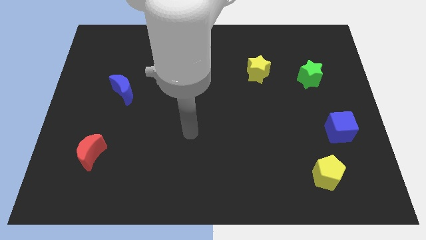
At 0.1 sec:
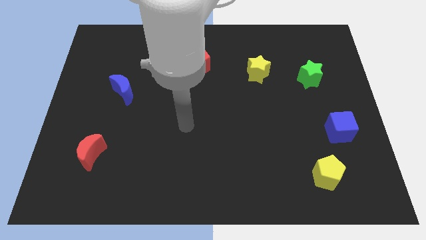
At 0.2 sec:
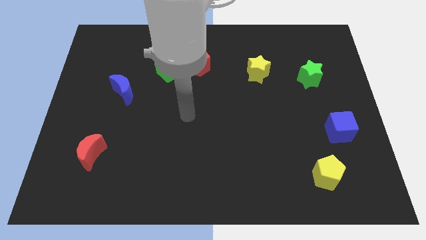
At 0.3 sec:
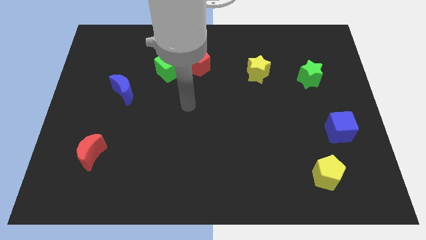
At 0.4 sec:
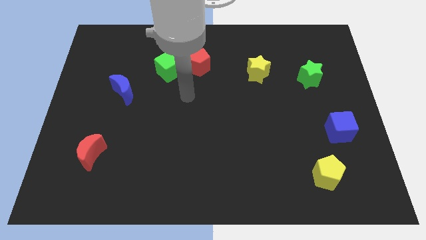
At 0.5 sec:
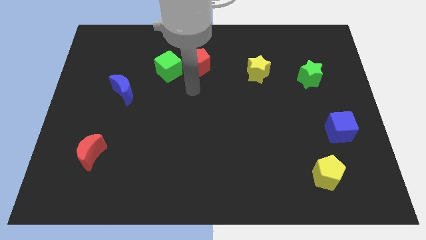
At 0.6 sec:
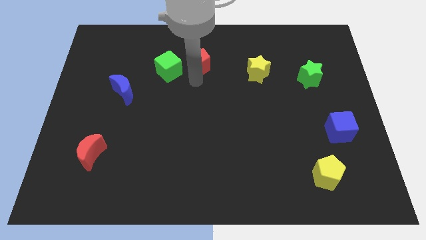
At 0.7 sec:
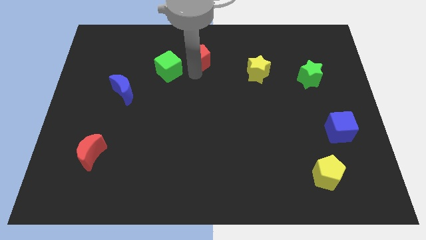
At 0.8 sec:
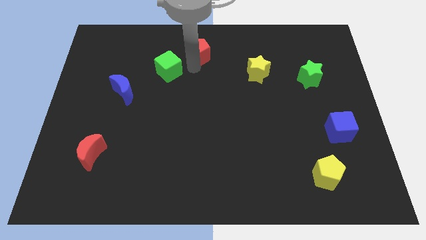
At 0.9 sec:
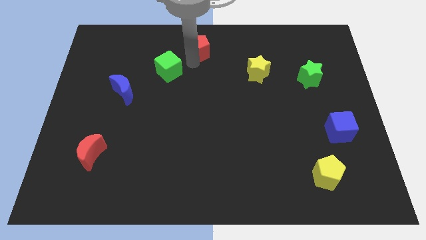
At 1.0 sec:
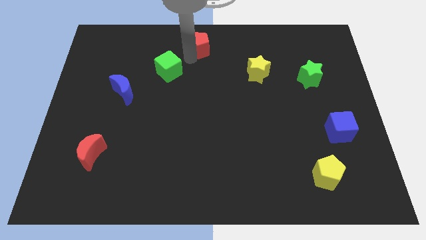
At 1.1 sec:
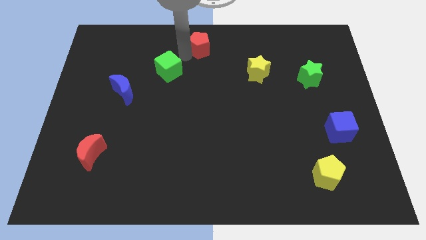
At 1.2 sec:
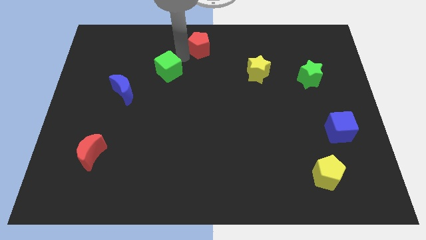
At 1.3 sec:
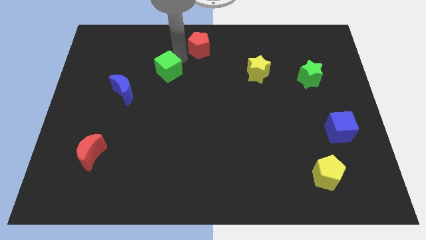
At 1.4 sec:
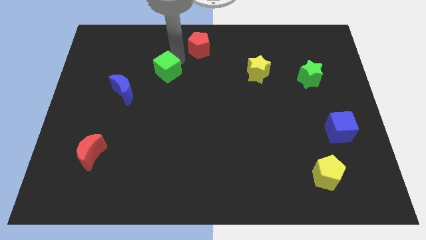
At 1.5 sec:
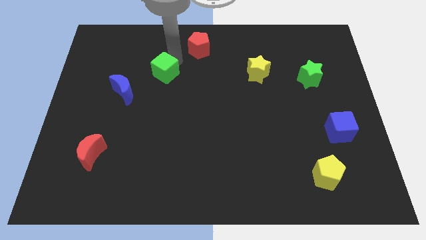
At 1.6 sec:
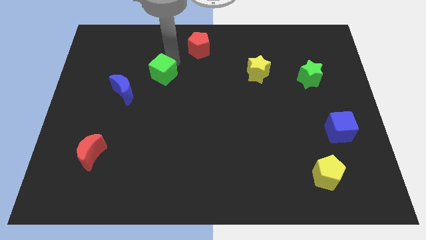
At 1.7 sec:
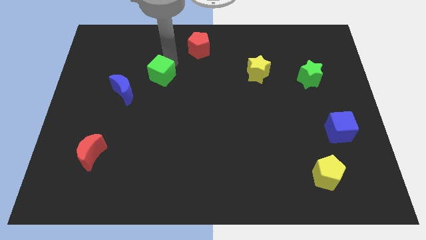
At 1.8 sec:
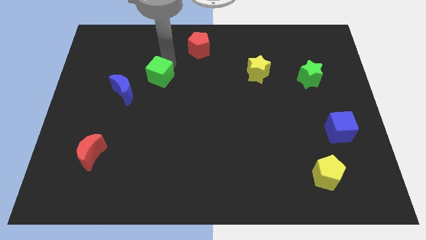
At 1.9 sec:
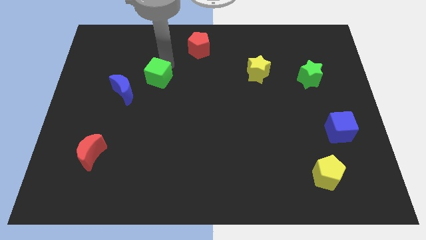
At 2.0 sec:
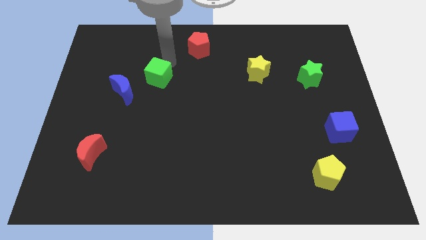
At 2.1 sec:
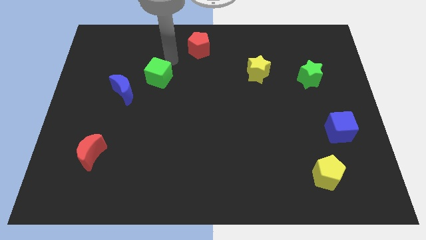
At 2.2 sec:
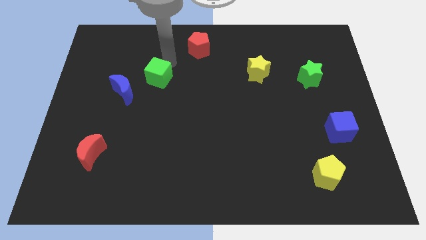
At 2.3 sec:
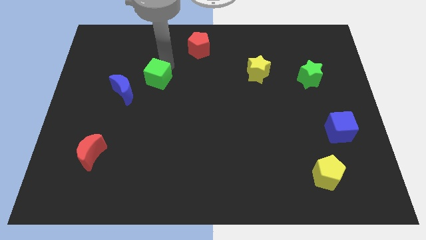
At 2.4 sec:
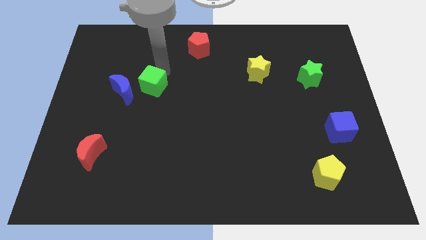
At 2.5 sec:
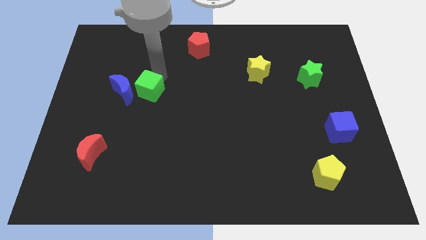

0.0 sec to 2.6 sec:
slightly move the green cube downwards and to the left diagonally

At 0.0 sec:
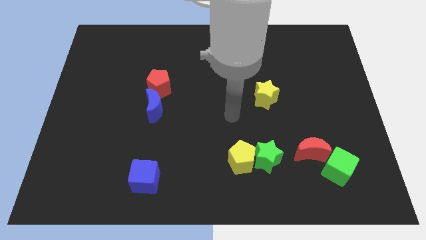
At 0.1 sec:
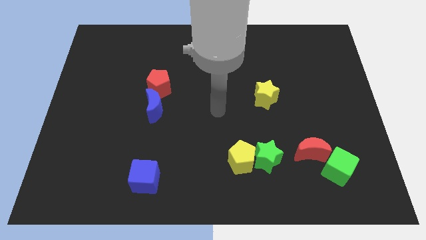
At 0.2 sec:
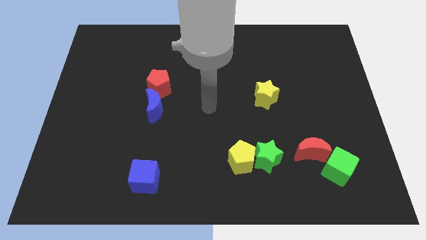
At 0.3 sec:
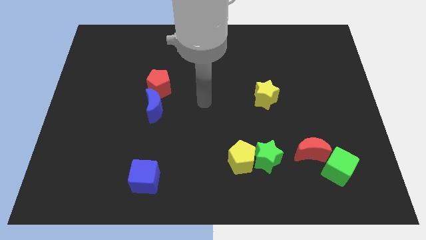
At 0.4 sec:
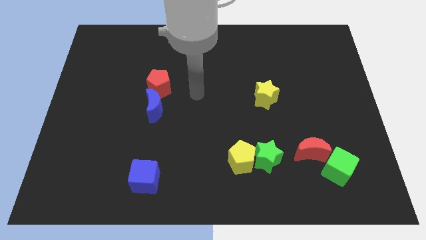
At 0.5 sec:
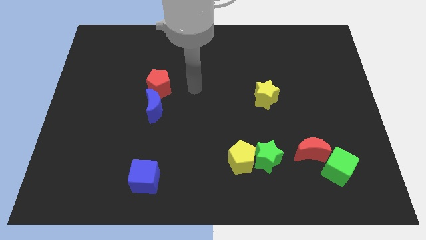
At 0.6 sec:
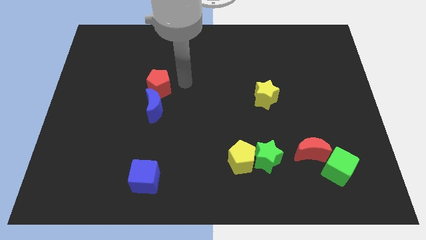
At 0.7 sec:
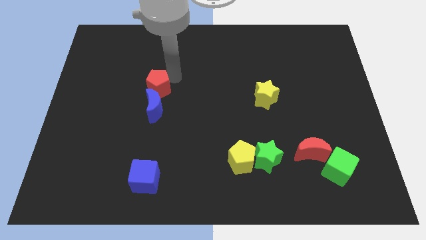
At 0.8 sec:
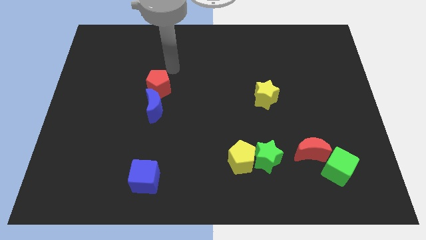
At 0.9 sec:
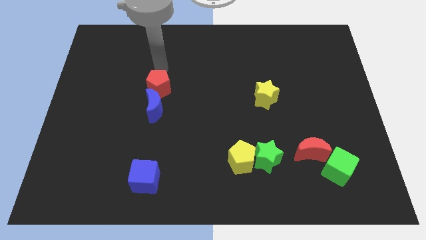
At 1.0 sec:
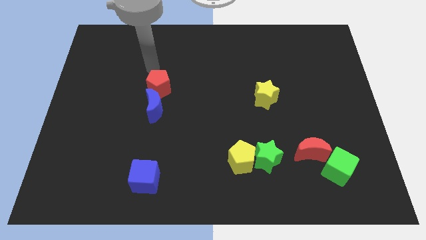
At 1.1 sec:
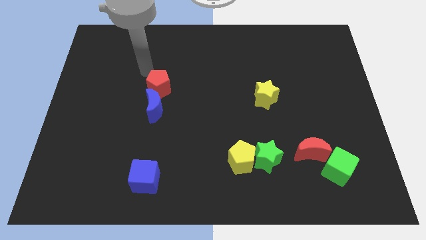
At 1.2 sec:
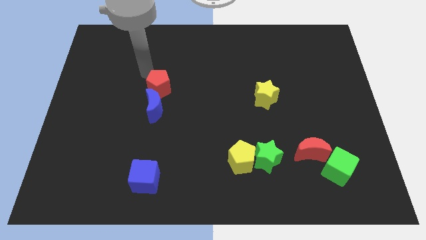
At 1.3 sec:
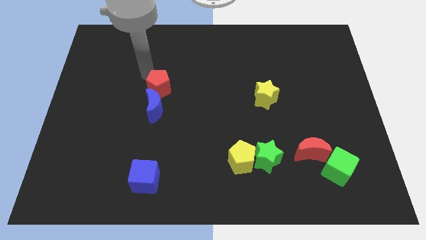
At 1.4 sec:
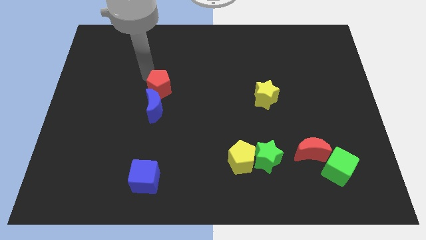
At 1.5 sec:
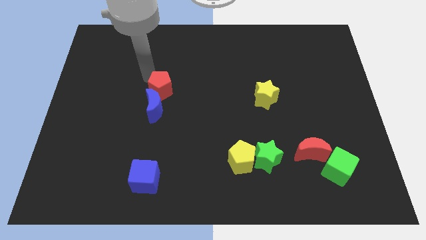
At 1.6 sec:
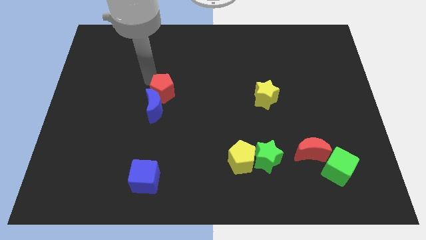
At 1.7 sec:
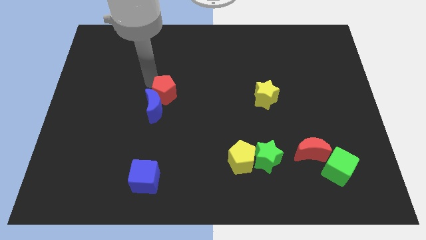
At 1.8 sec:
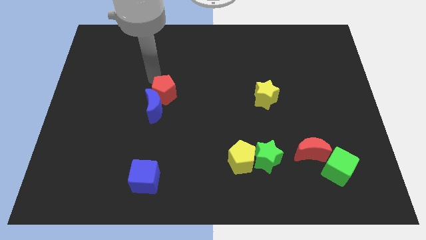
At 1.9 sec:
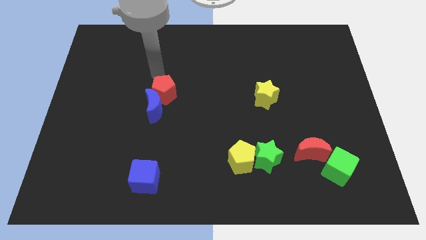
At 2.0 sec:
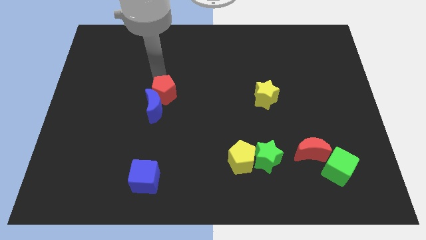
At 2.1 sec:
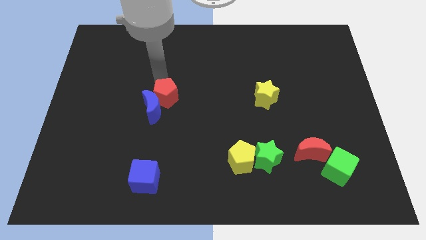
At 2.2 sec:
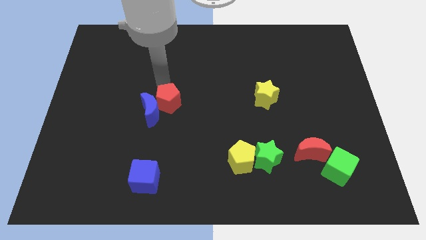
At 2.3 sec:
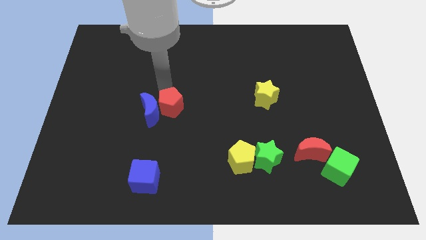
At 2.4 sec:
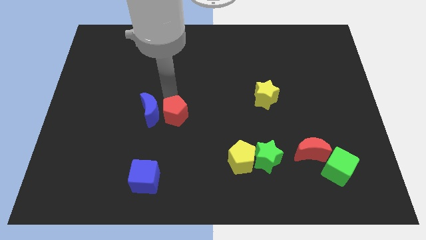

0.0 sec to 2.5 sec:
push the red pentagon a little bit down

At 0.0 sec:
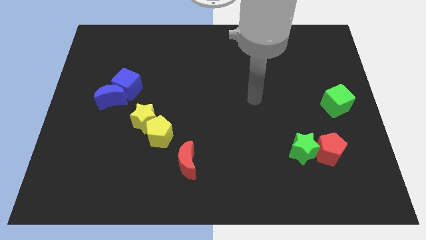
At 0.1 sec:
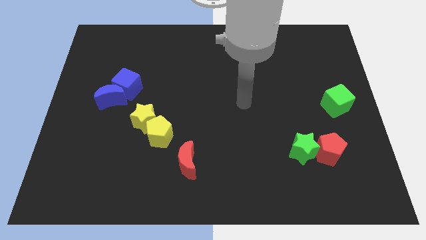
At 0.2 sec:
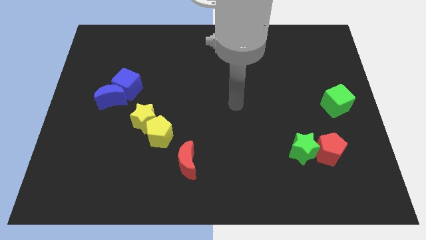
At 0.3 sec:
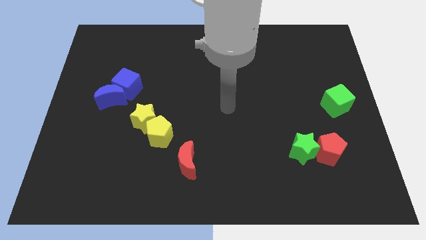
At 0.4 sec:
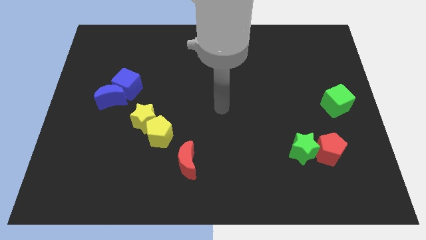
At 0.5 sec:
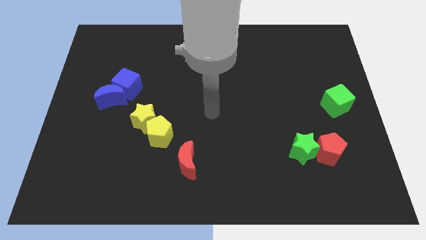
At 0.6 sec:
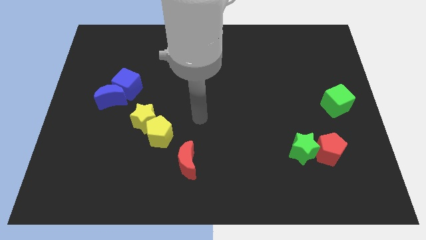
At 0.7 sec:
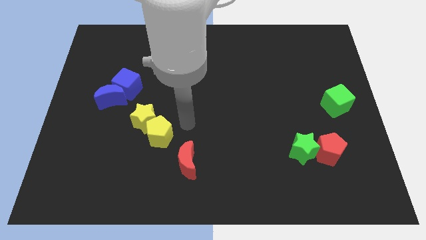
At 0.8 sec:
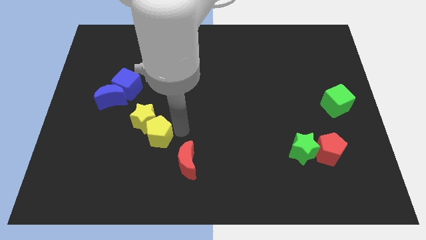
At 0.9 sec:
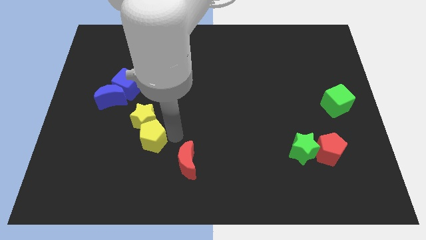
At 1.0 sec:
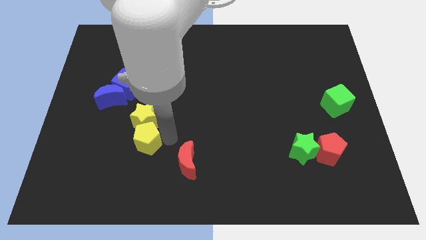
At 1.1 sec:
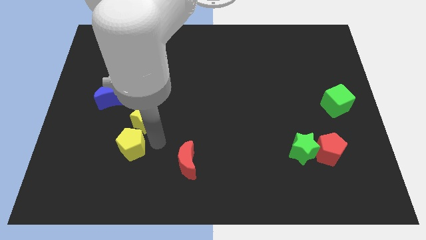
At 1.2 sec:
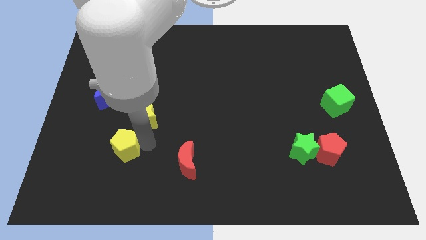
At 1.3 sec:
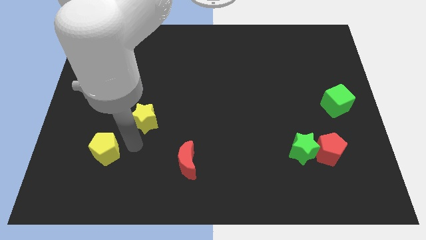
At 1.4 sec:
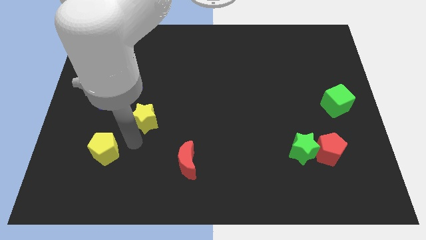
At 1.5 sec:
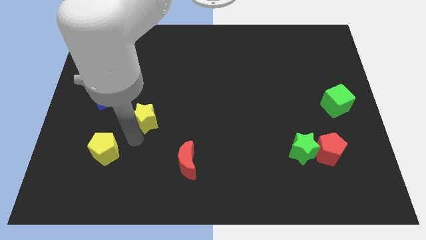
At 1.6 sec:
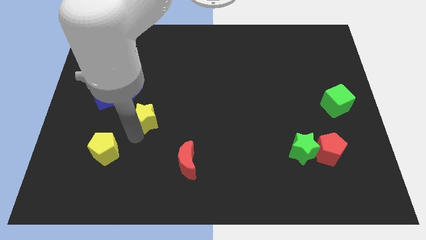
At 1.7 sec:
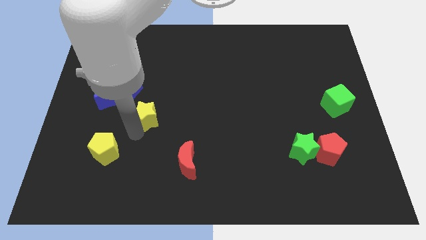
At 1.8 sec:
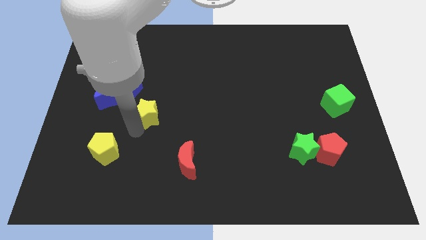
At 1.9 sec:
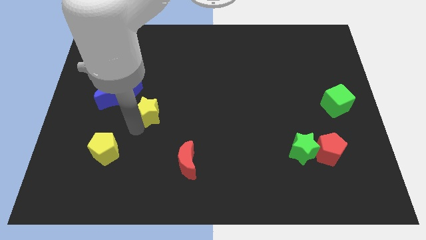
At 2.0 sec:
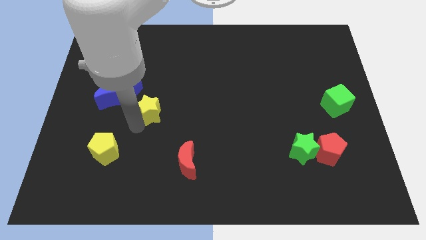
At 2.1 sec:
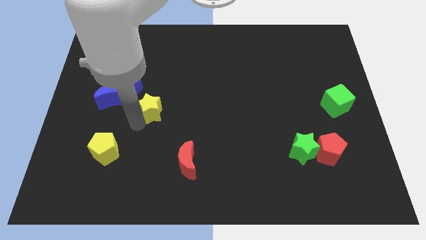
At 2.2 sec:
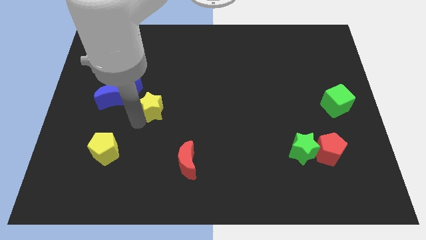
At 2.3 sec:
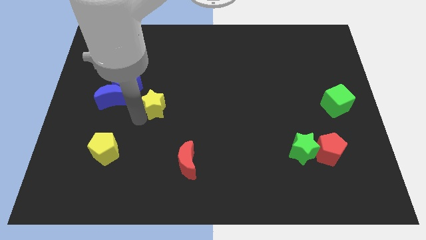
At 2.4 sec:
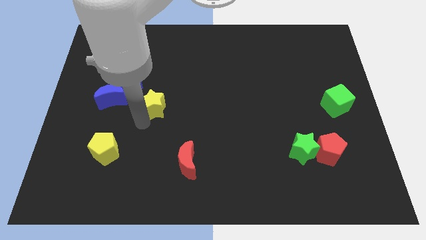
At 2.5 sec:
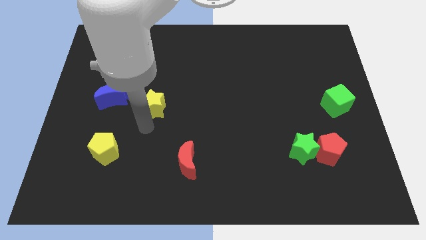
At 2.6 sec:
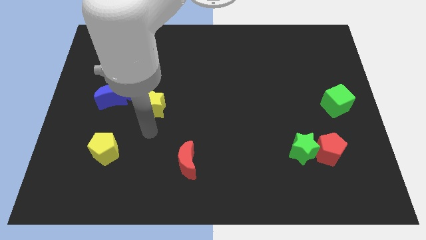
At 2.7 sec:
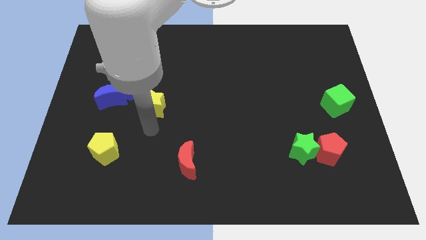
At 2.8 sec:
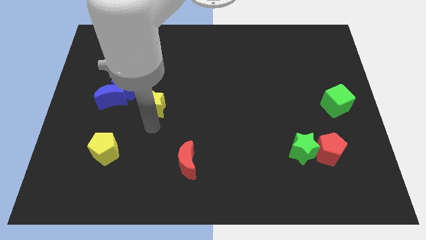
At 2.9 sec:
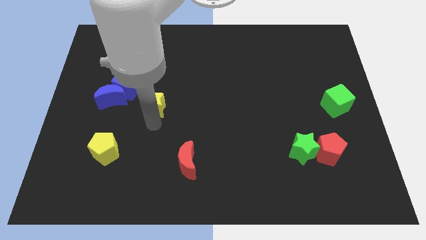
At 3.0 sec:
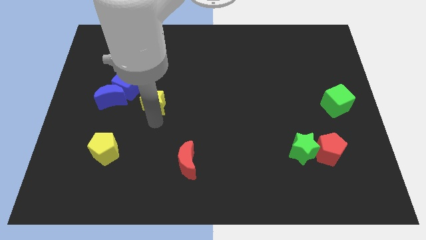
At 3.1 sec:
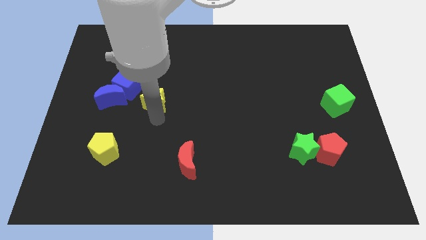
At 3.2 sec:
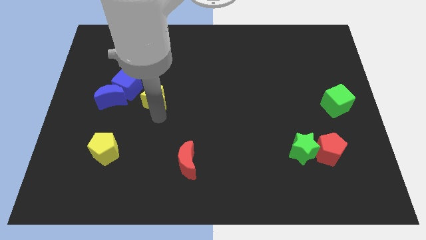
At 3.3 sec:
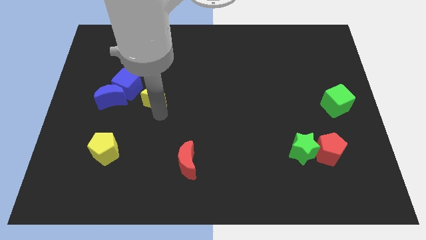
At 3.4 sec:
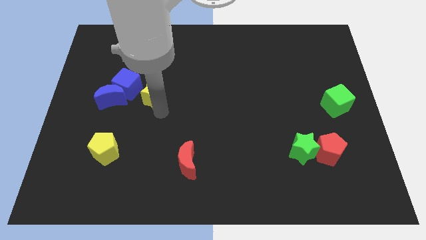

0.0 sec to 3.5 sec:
slide the yellow star slightly upwards
